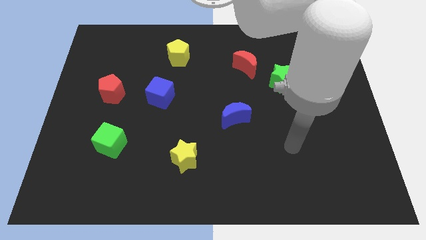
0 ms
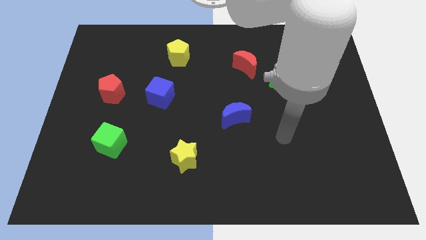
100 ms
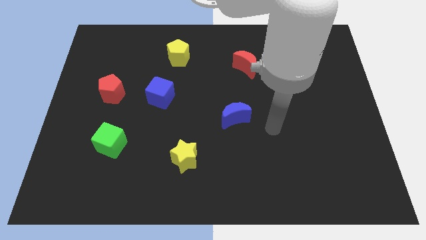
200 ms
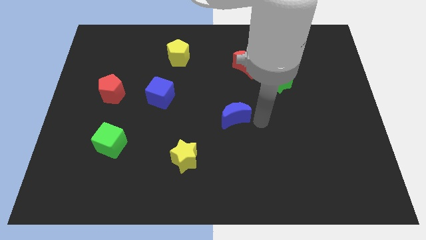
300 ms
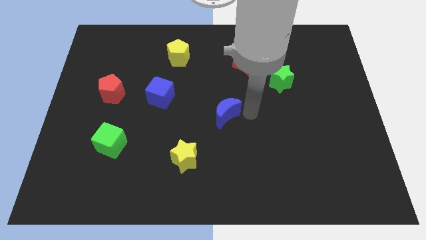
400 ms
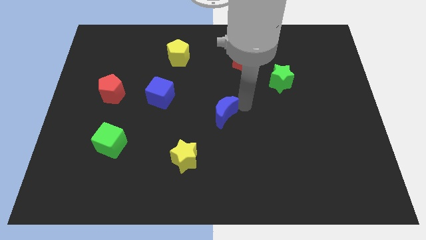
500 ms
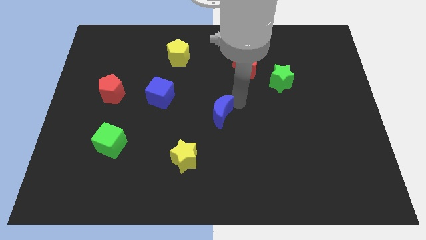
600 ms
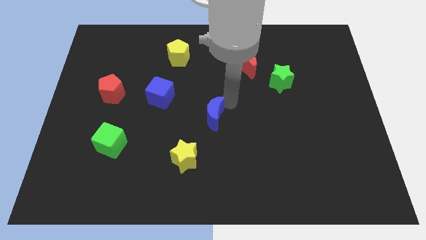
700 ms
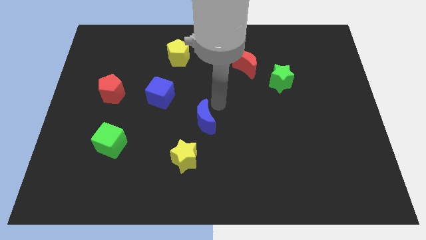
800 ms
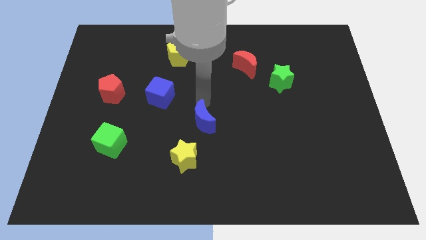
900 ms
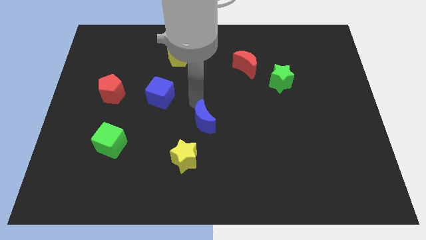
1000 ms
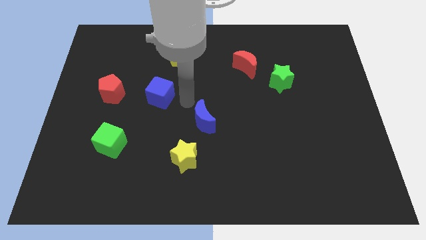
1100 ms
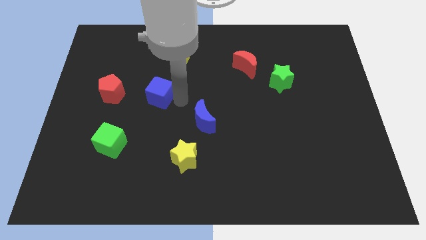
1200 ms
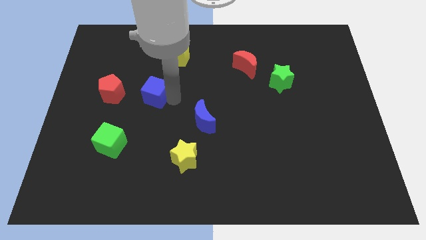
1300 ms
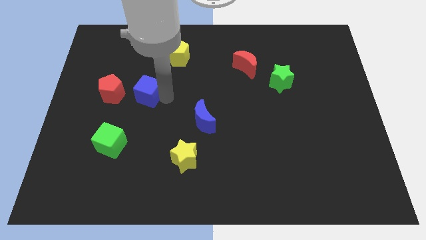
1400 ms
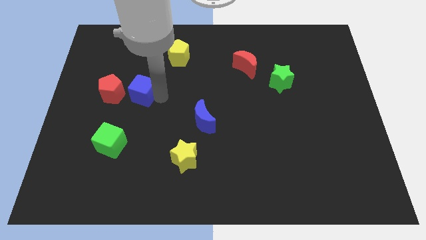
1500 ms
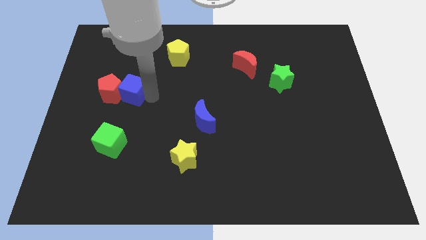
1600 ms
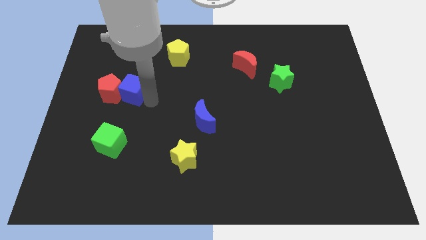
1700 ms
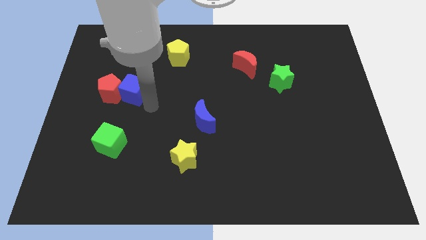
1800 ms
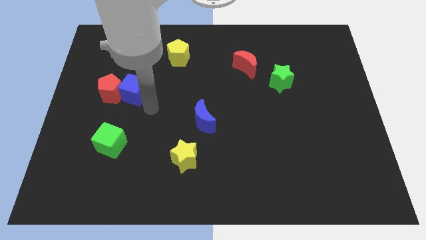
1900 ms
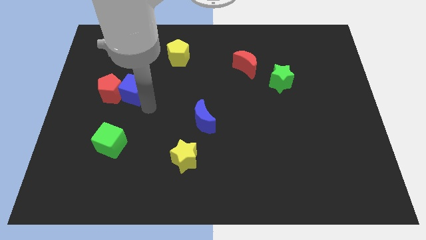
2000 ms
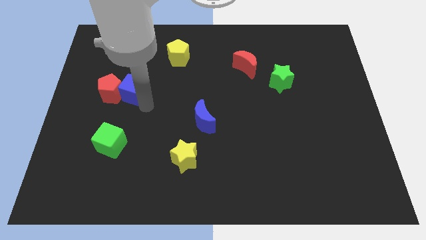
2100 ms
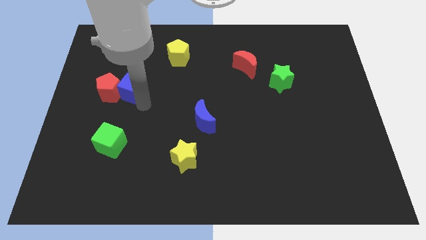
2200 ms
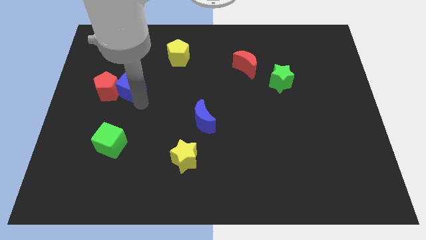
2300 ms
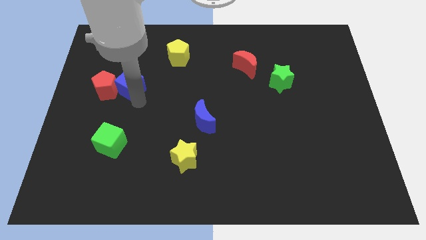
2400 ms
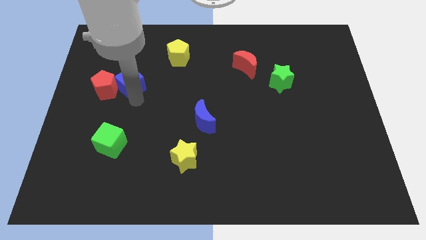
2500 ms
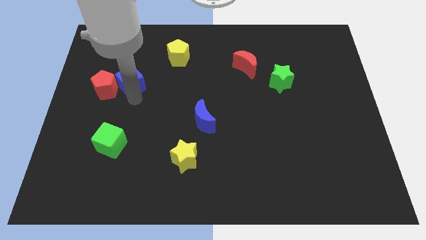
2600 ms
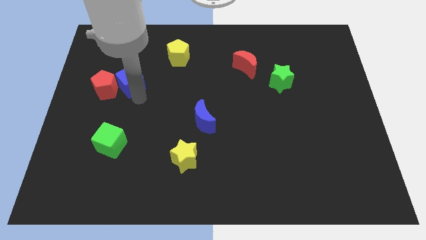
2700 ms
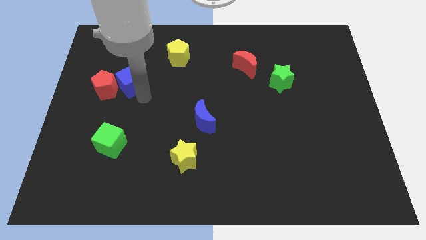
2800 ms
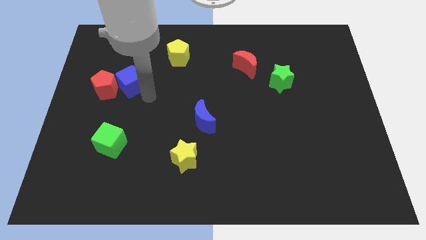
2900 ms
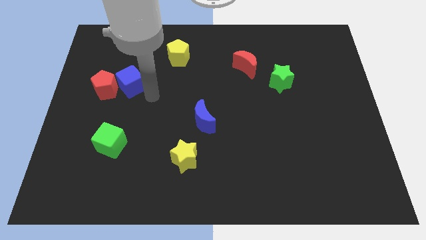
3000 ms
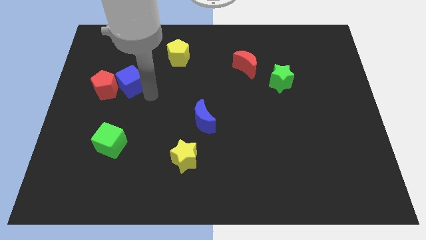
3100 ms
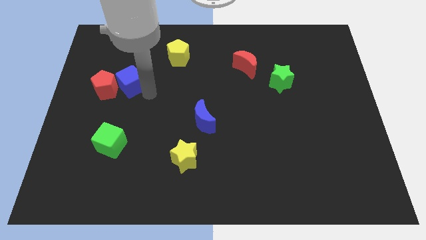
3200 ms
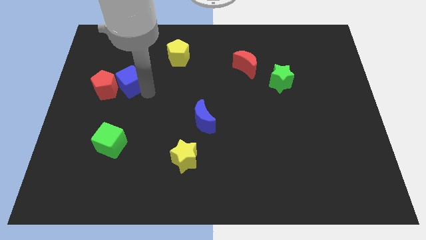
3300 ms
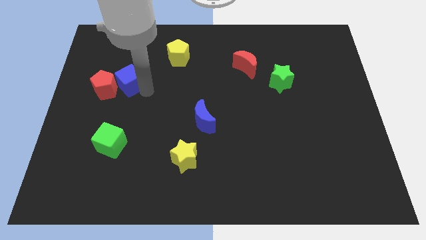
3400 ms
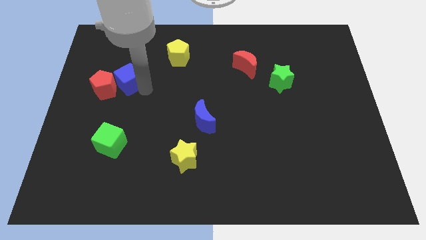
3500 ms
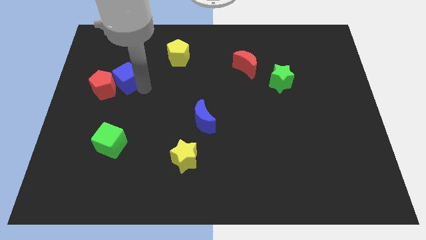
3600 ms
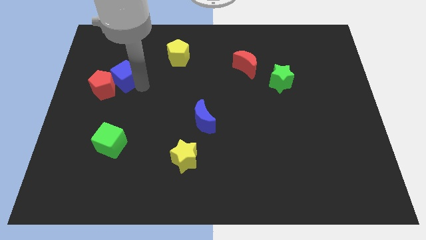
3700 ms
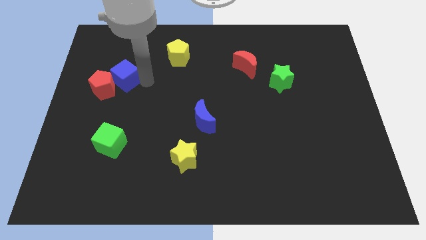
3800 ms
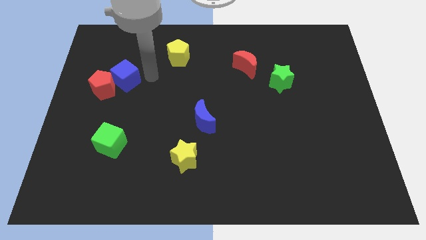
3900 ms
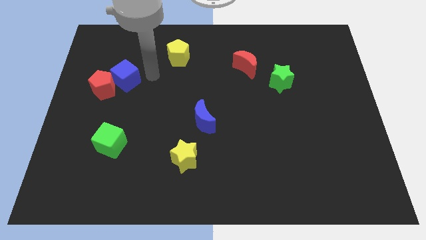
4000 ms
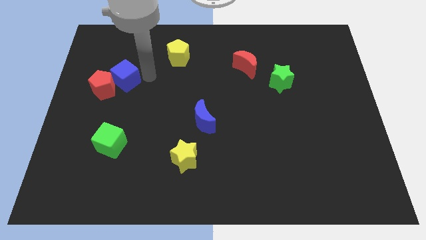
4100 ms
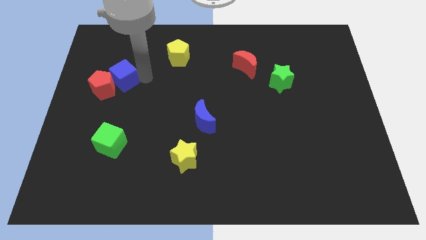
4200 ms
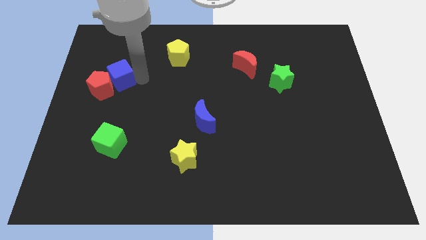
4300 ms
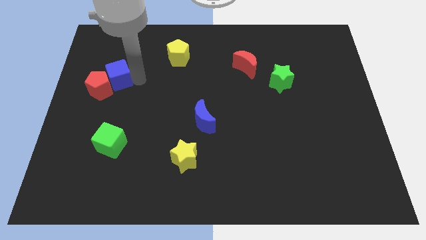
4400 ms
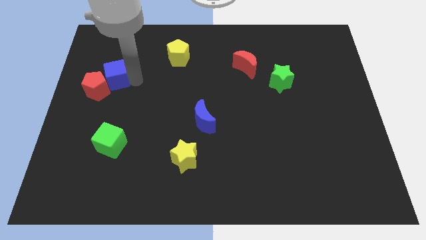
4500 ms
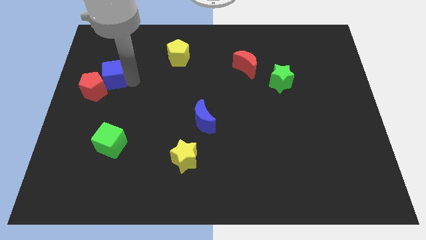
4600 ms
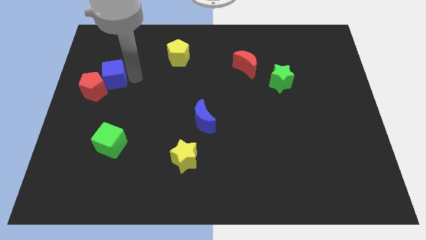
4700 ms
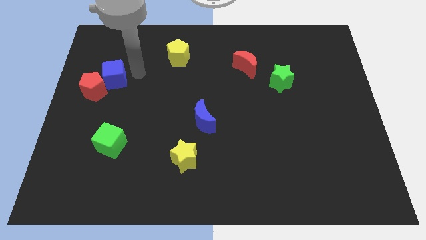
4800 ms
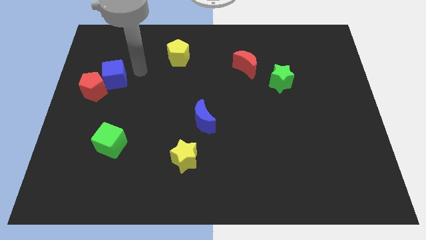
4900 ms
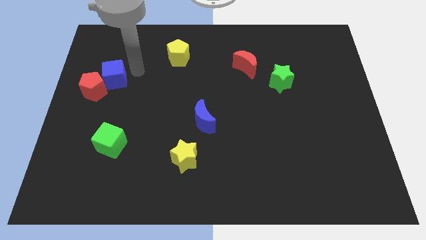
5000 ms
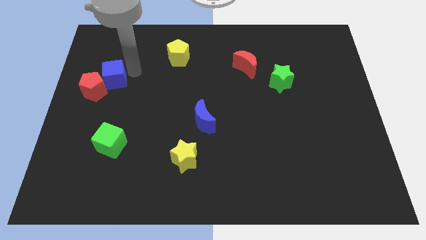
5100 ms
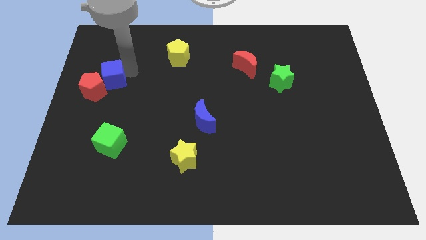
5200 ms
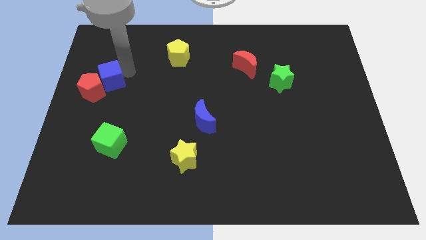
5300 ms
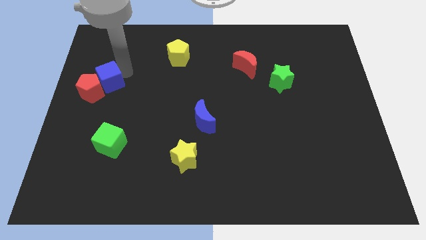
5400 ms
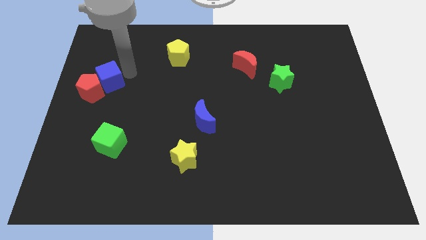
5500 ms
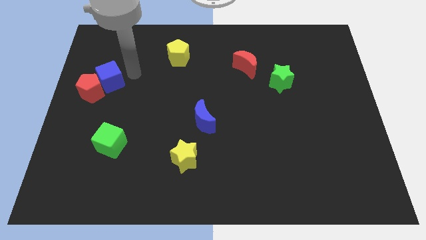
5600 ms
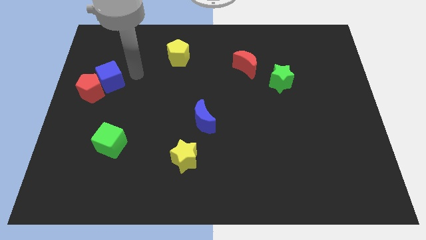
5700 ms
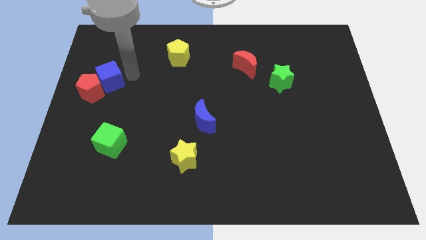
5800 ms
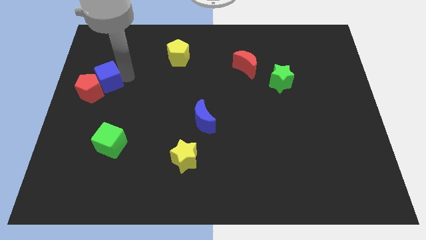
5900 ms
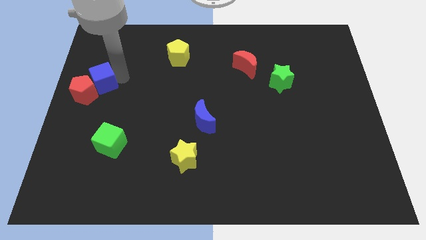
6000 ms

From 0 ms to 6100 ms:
put the blue cube to the left side
